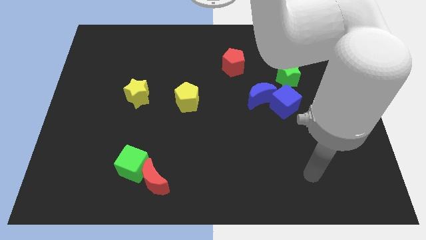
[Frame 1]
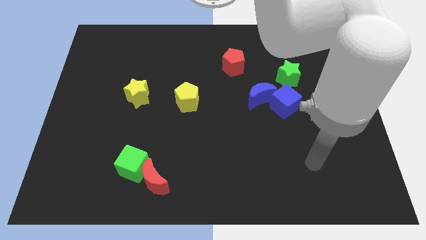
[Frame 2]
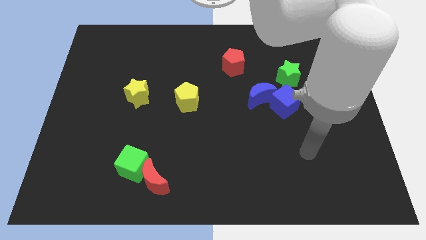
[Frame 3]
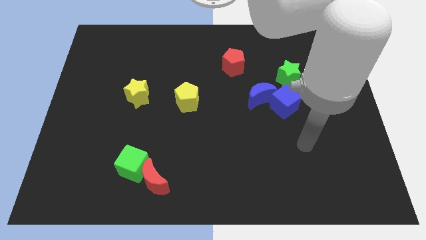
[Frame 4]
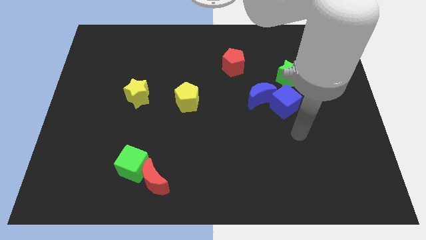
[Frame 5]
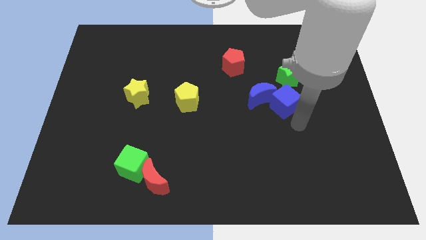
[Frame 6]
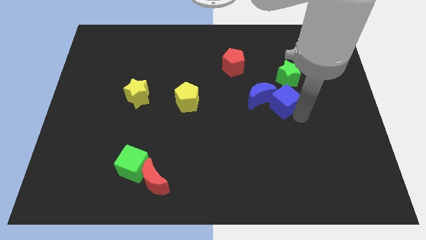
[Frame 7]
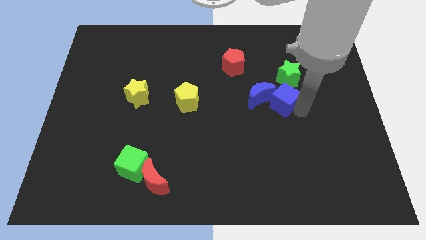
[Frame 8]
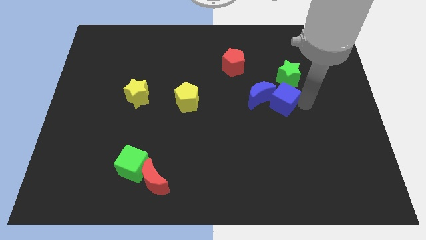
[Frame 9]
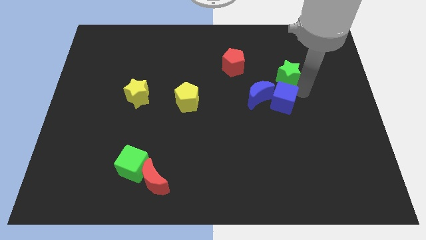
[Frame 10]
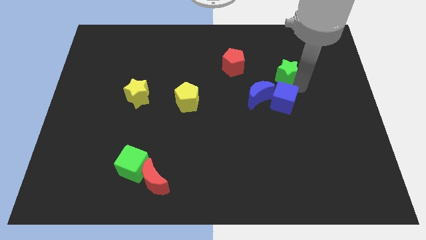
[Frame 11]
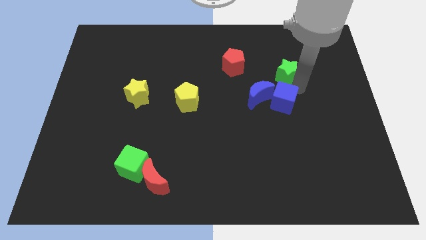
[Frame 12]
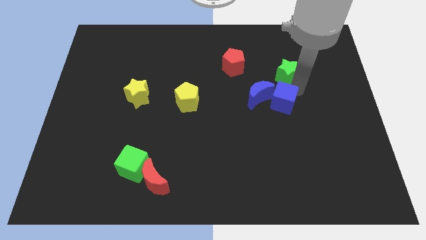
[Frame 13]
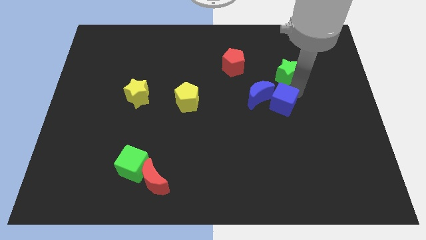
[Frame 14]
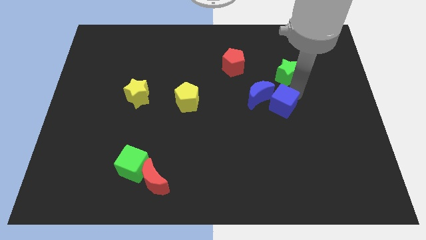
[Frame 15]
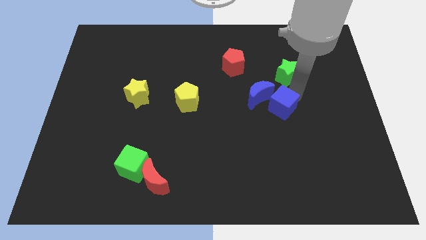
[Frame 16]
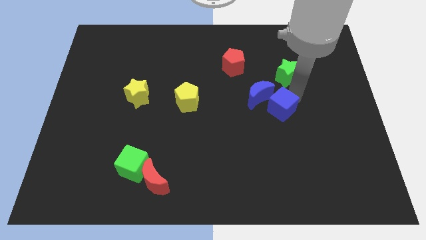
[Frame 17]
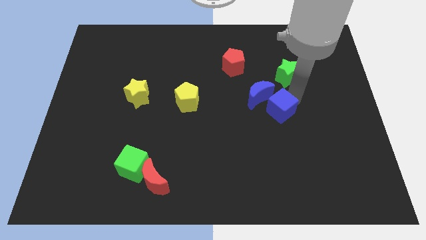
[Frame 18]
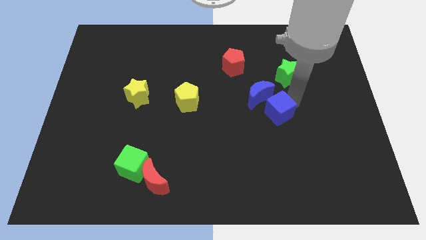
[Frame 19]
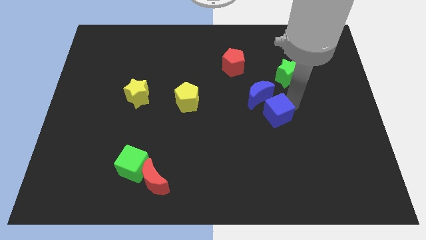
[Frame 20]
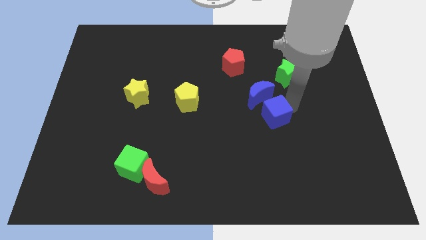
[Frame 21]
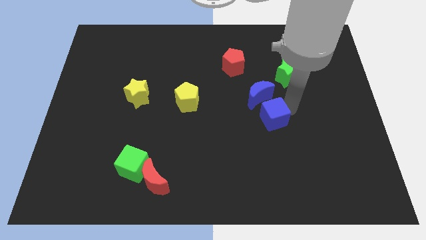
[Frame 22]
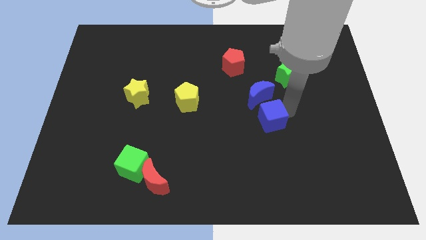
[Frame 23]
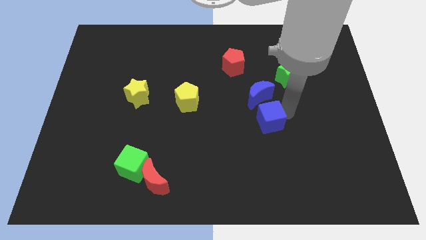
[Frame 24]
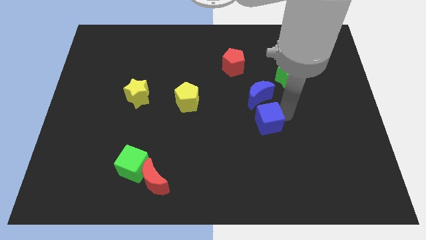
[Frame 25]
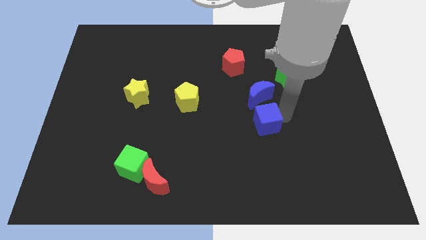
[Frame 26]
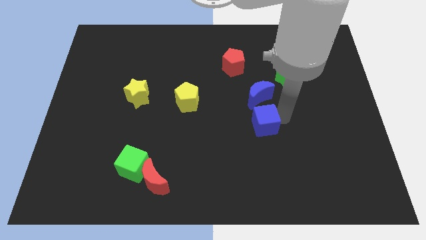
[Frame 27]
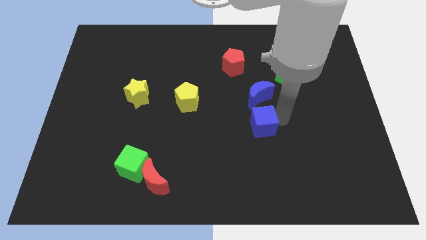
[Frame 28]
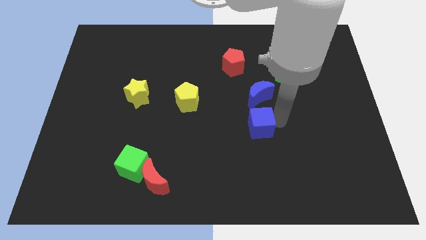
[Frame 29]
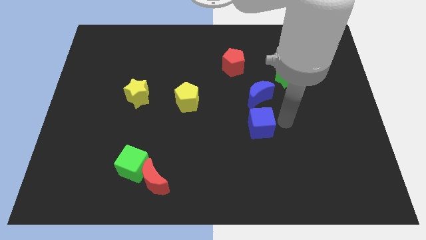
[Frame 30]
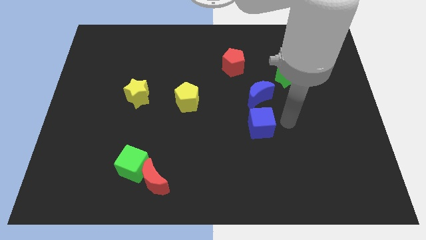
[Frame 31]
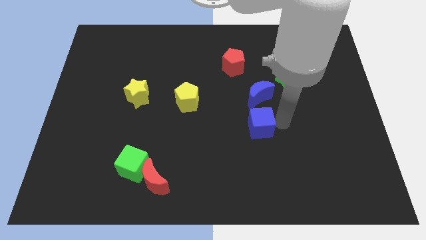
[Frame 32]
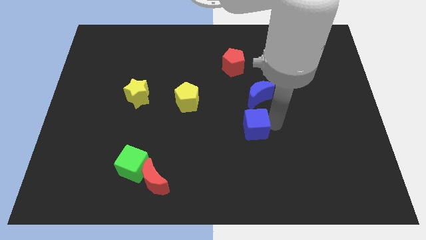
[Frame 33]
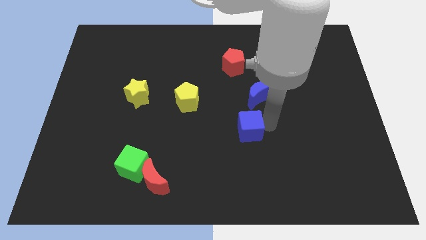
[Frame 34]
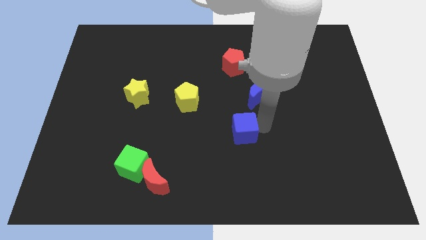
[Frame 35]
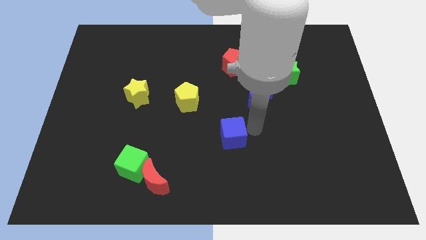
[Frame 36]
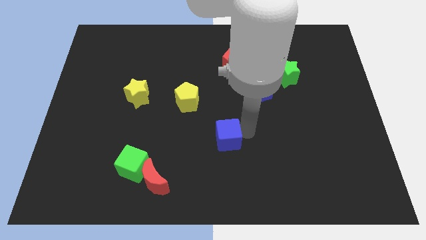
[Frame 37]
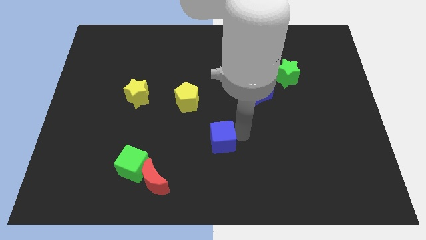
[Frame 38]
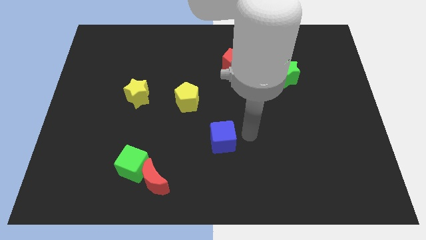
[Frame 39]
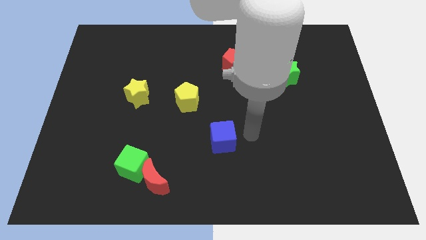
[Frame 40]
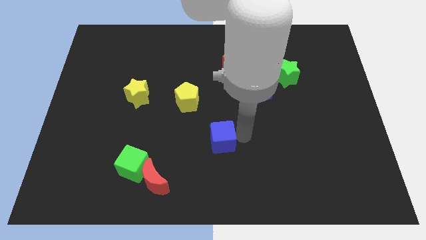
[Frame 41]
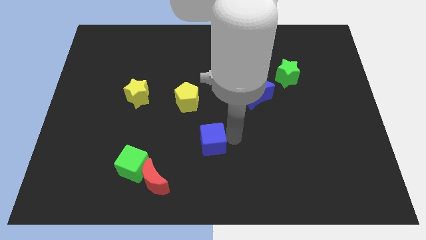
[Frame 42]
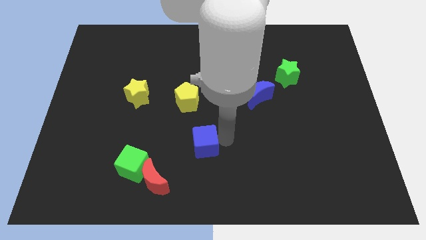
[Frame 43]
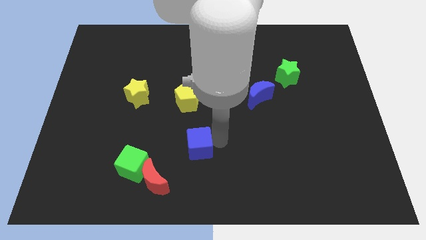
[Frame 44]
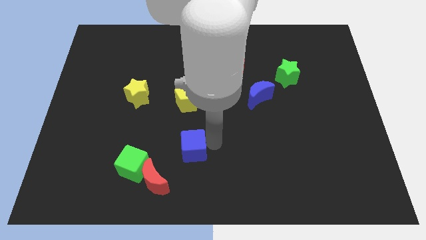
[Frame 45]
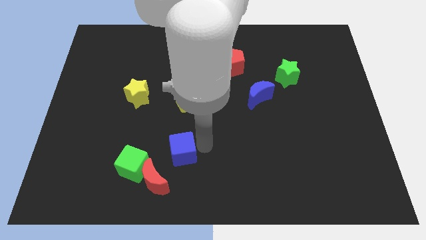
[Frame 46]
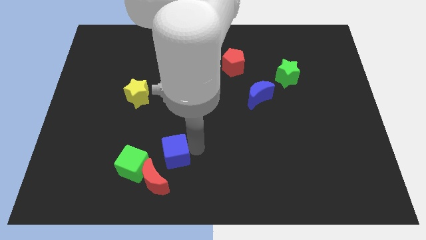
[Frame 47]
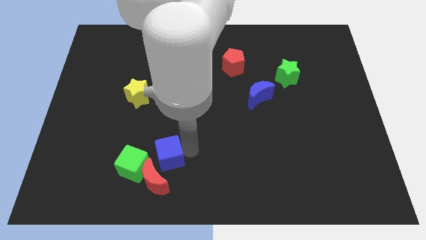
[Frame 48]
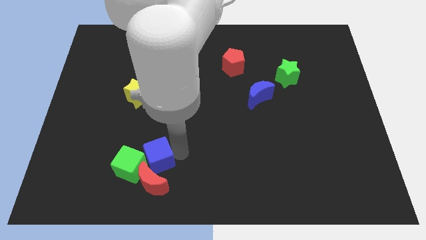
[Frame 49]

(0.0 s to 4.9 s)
put the blue cube close to the green cube

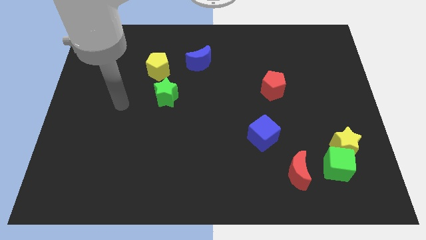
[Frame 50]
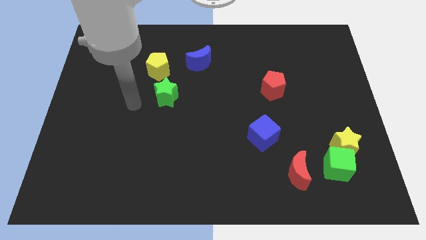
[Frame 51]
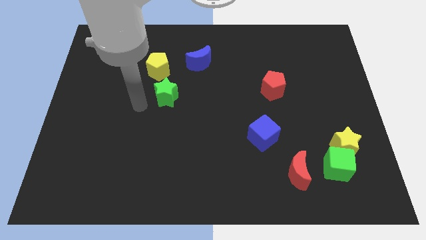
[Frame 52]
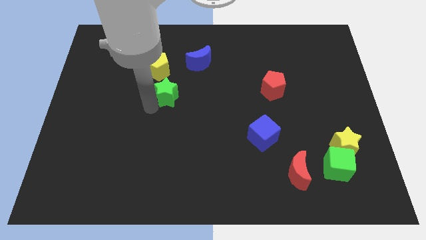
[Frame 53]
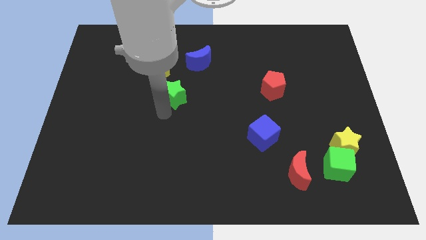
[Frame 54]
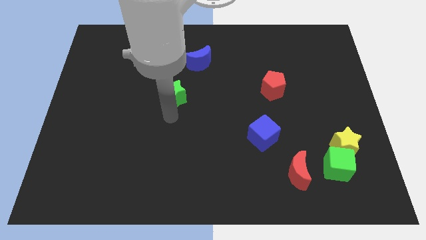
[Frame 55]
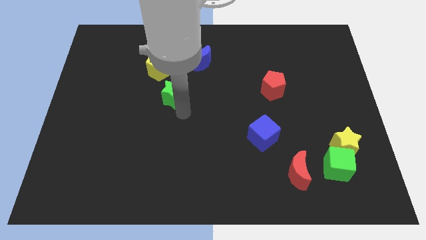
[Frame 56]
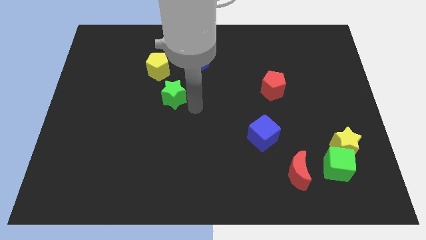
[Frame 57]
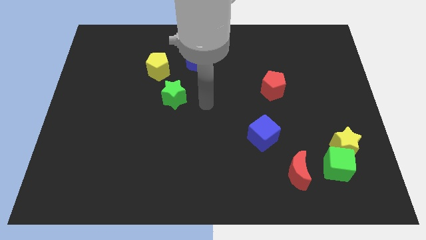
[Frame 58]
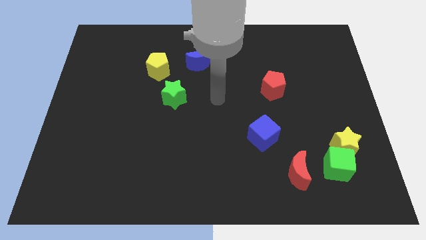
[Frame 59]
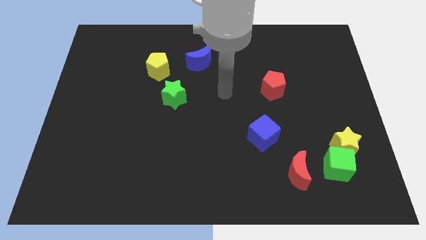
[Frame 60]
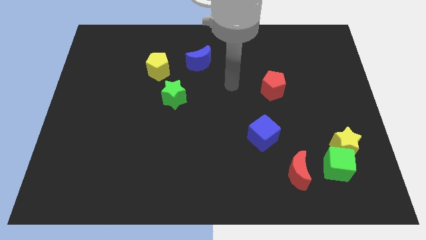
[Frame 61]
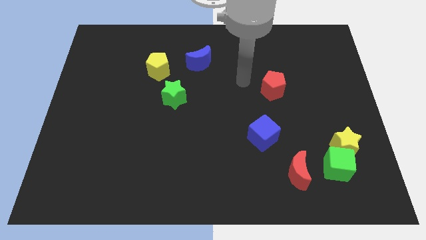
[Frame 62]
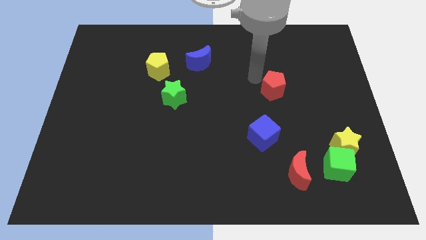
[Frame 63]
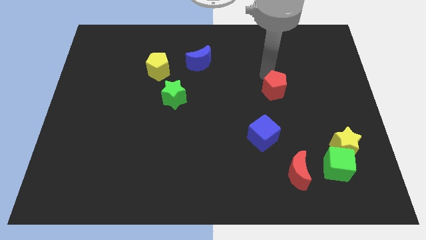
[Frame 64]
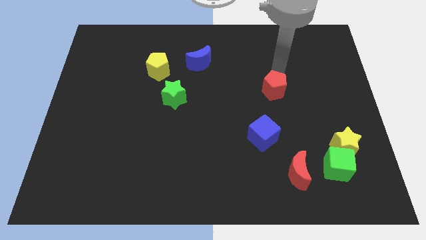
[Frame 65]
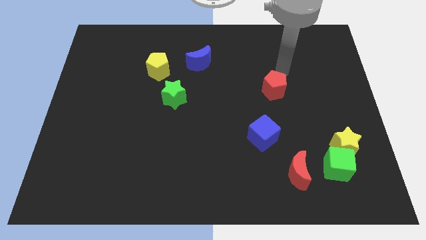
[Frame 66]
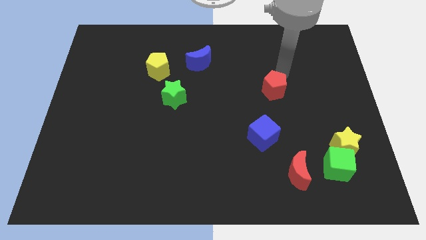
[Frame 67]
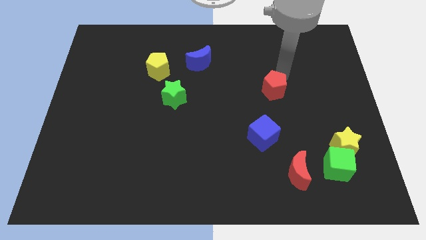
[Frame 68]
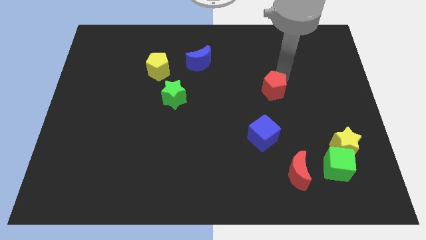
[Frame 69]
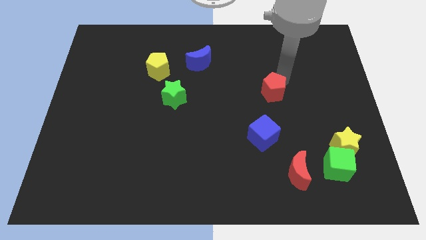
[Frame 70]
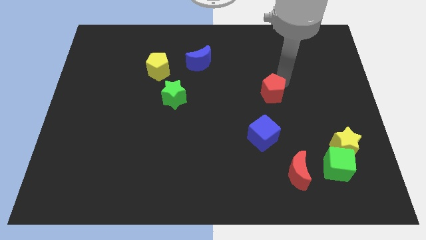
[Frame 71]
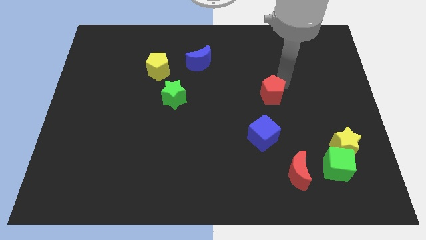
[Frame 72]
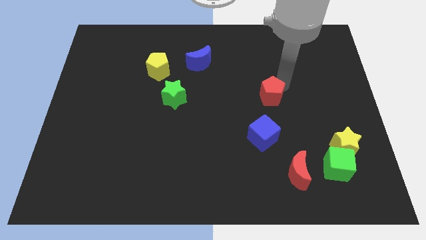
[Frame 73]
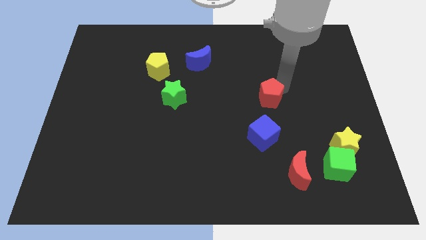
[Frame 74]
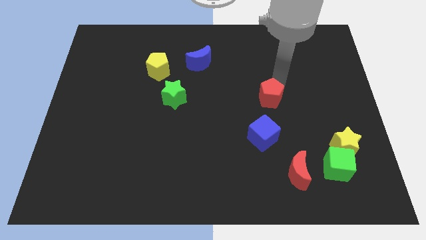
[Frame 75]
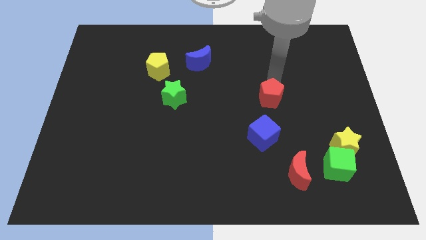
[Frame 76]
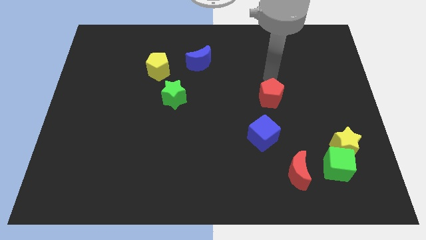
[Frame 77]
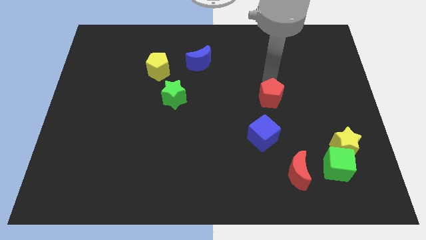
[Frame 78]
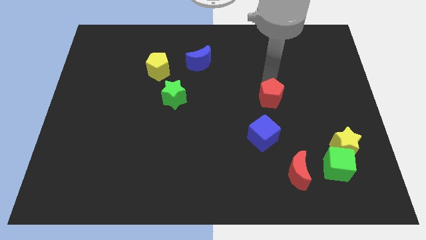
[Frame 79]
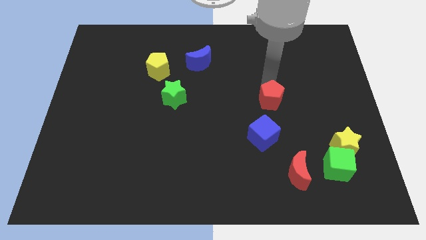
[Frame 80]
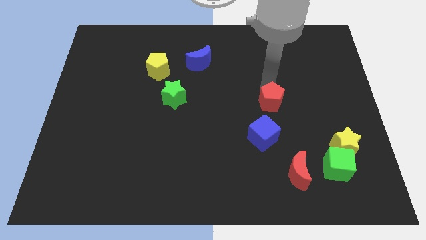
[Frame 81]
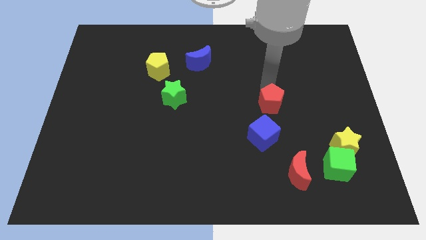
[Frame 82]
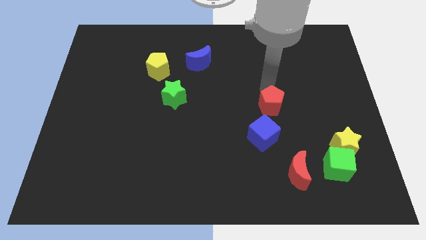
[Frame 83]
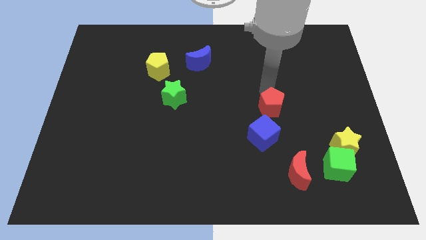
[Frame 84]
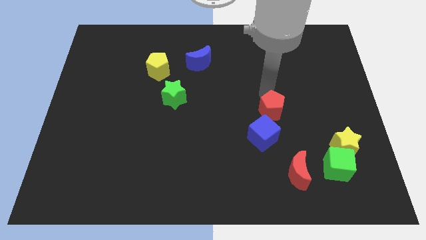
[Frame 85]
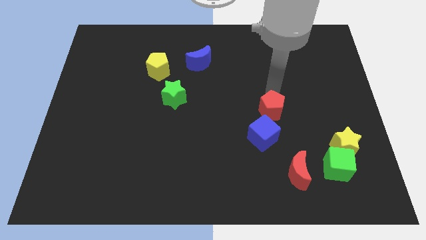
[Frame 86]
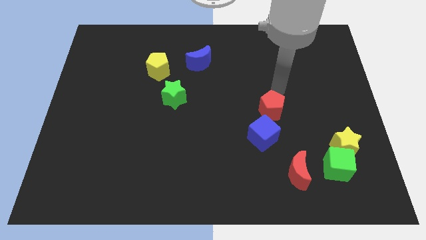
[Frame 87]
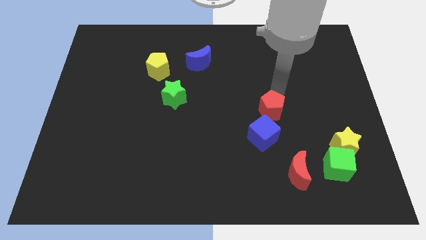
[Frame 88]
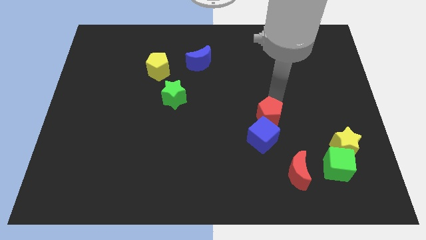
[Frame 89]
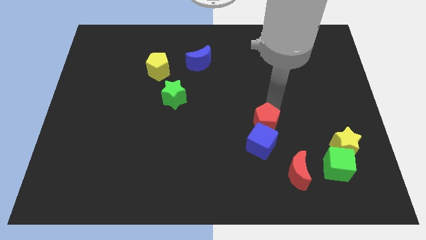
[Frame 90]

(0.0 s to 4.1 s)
move the red pentagon to the blue cube
